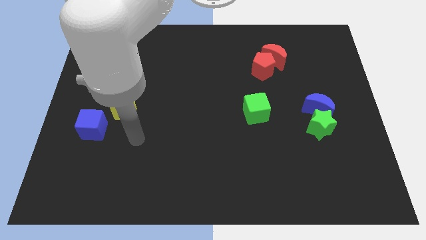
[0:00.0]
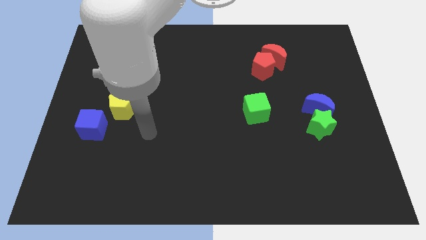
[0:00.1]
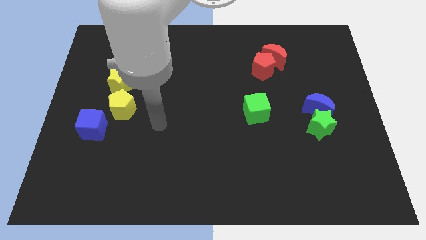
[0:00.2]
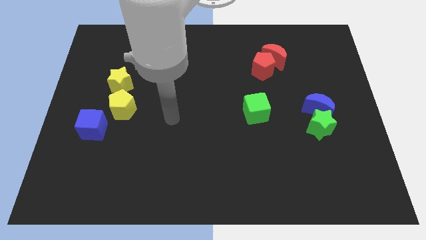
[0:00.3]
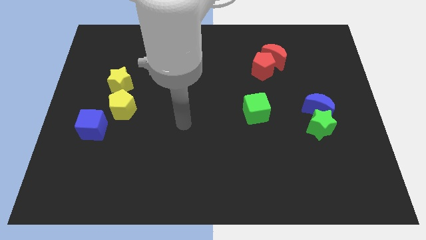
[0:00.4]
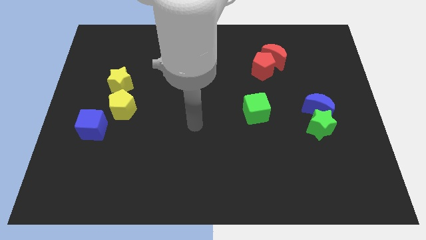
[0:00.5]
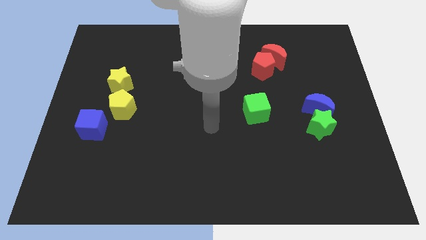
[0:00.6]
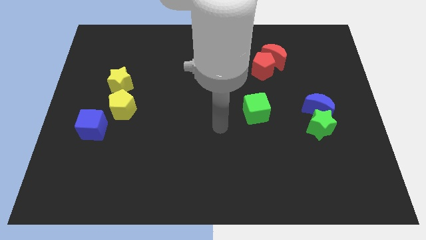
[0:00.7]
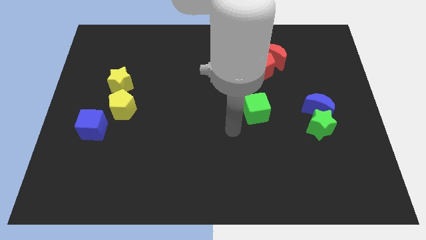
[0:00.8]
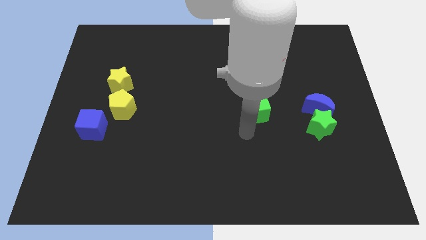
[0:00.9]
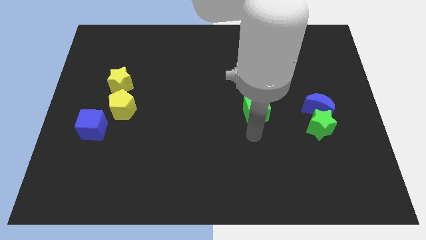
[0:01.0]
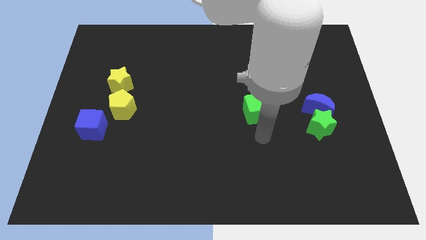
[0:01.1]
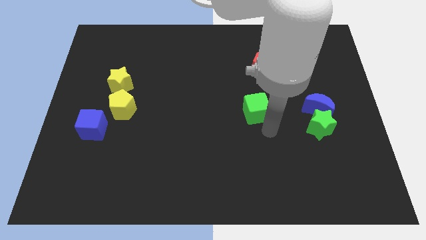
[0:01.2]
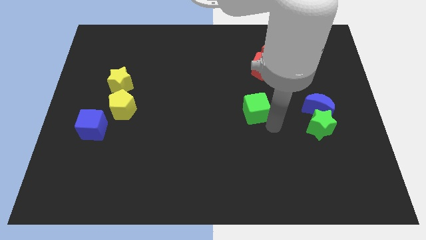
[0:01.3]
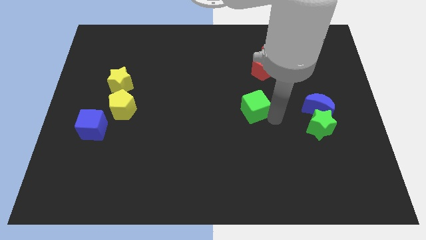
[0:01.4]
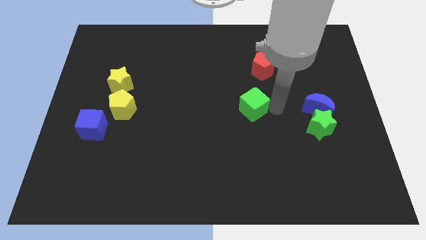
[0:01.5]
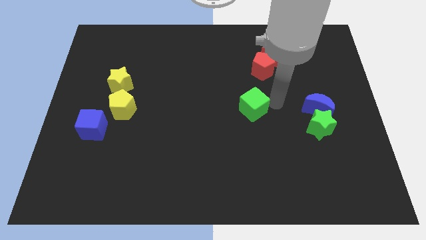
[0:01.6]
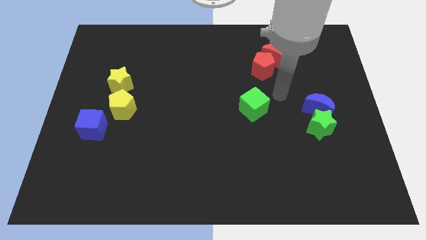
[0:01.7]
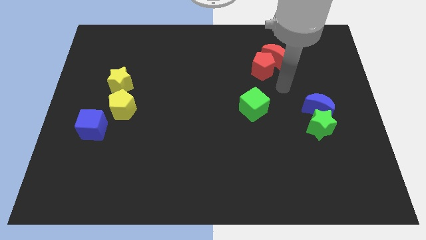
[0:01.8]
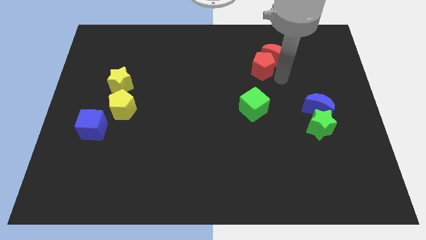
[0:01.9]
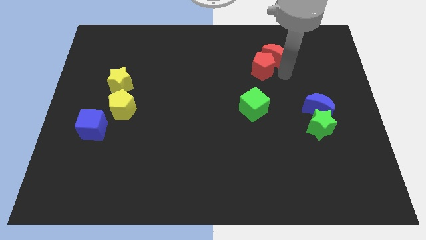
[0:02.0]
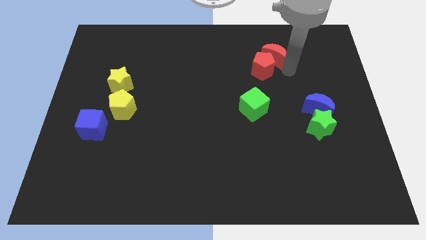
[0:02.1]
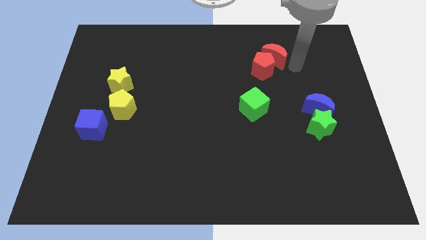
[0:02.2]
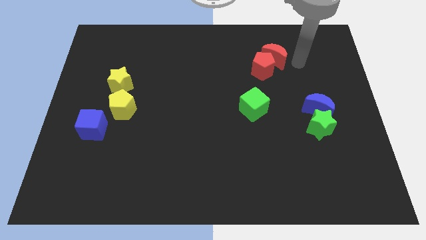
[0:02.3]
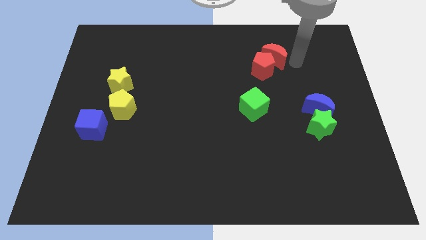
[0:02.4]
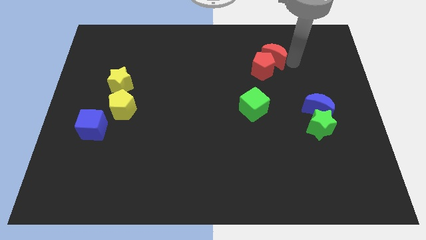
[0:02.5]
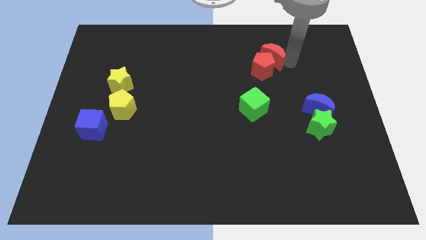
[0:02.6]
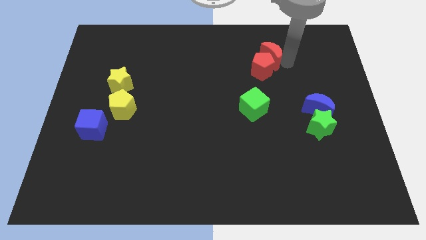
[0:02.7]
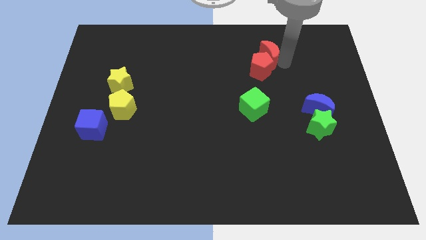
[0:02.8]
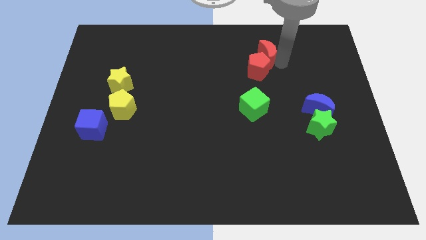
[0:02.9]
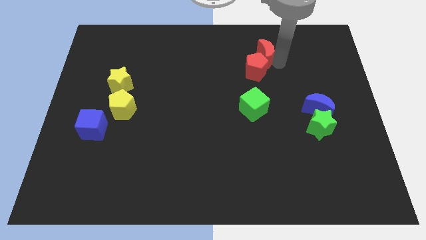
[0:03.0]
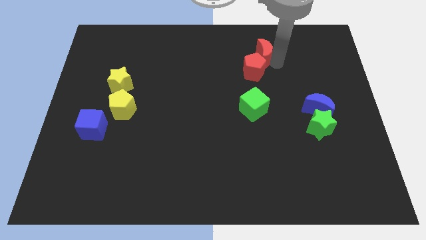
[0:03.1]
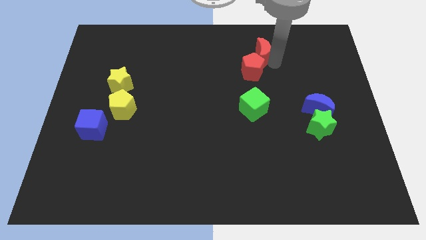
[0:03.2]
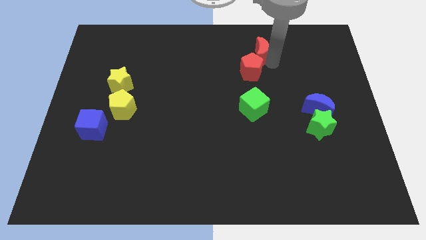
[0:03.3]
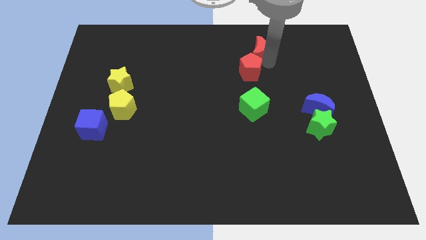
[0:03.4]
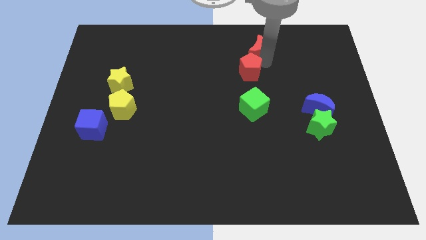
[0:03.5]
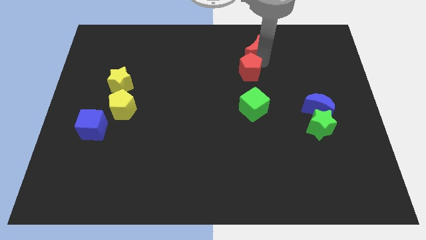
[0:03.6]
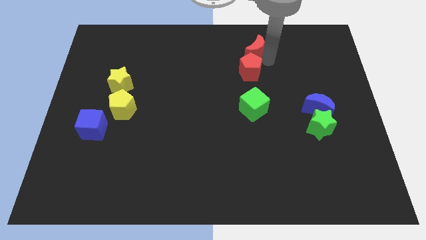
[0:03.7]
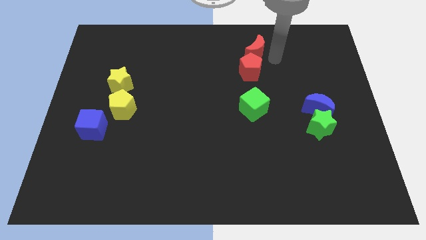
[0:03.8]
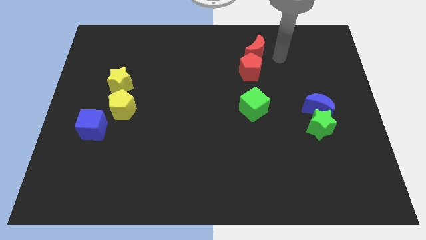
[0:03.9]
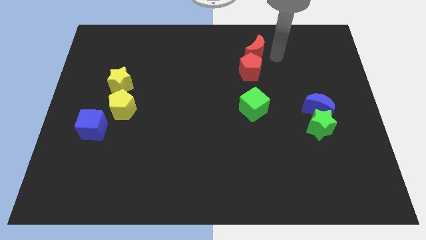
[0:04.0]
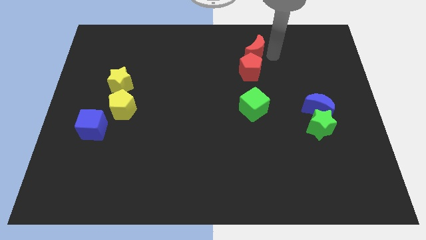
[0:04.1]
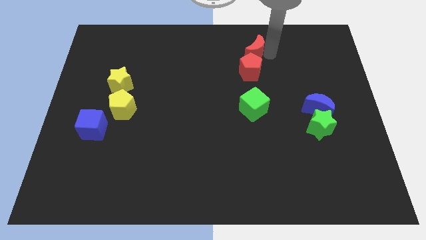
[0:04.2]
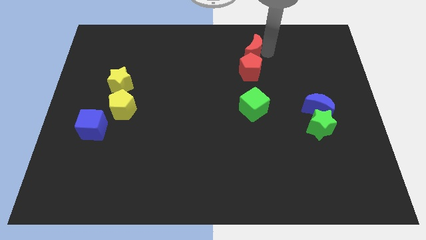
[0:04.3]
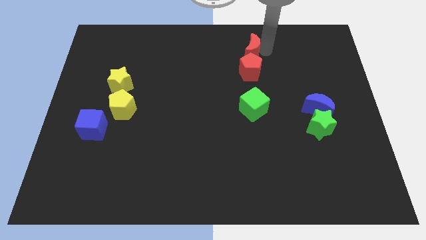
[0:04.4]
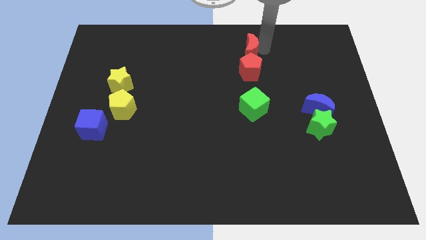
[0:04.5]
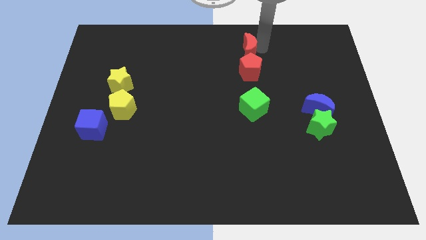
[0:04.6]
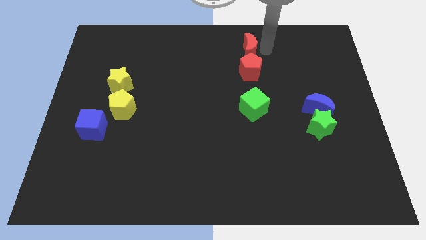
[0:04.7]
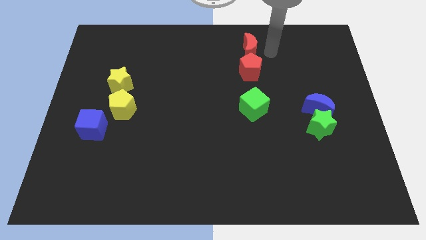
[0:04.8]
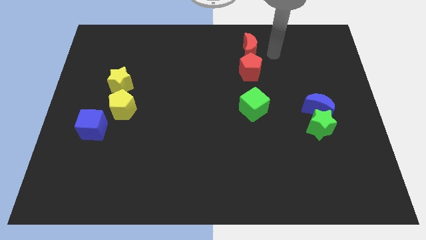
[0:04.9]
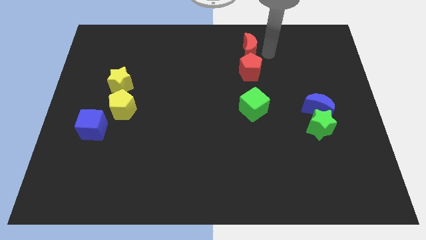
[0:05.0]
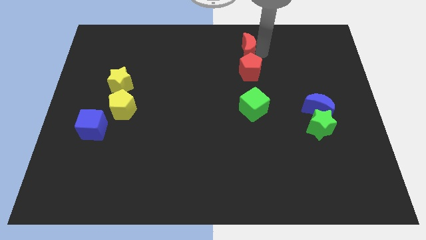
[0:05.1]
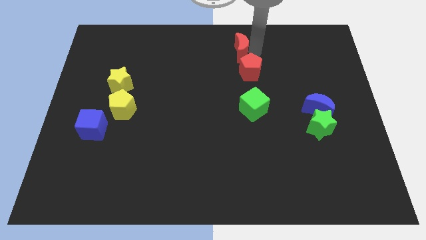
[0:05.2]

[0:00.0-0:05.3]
put the red moon to the top side
